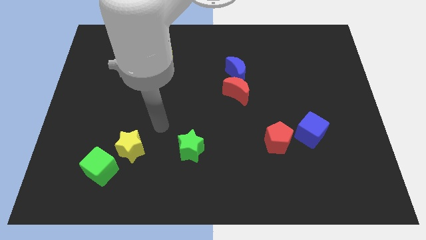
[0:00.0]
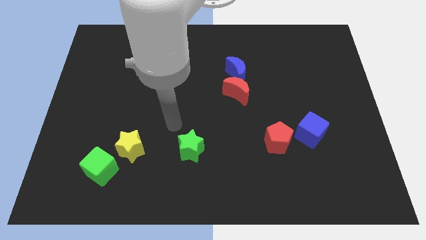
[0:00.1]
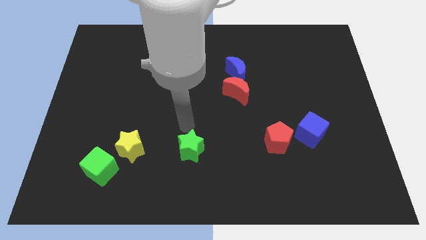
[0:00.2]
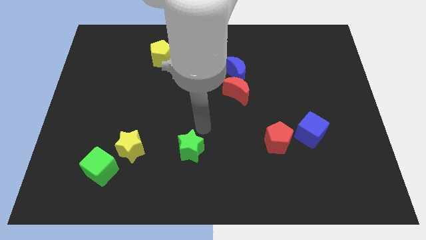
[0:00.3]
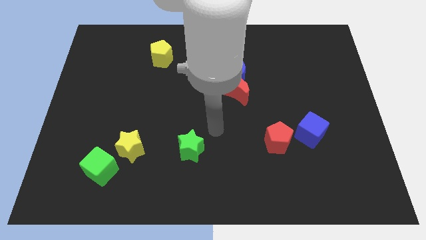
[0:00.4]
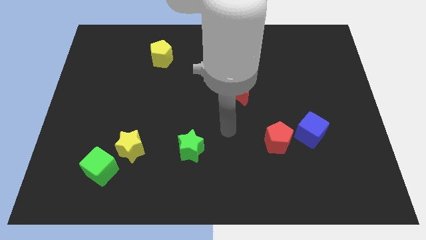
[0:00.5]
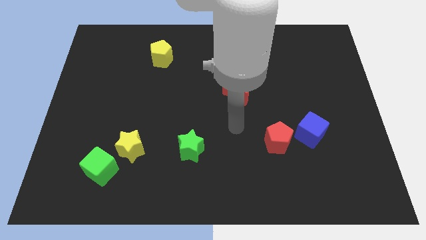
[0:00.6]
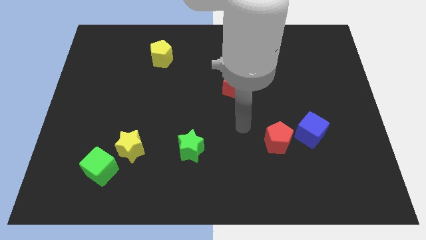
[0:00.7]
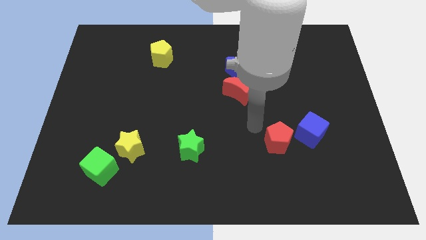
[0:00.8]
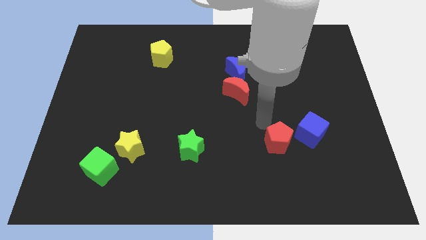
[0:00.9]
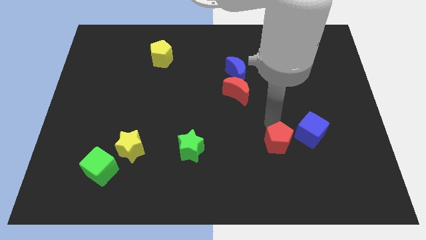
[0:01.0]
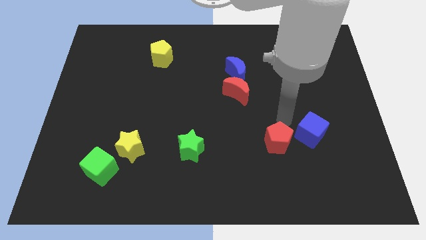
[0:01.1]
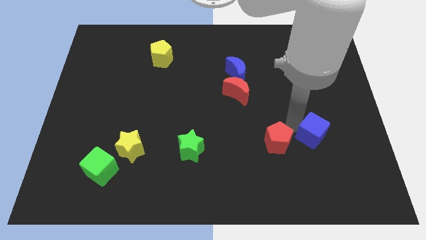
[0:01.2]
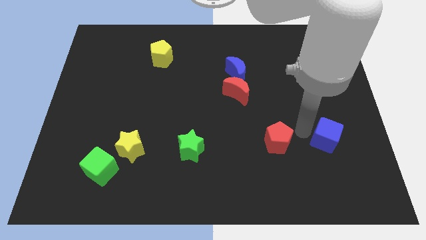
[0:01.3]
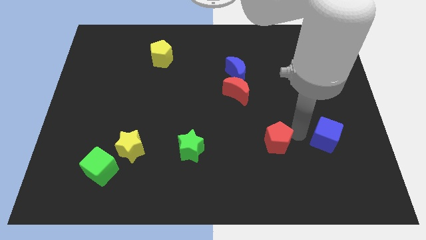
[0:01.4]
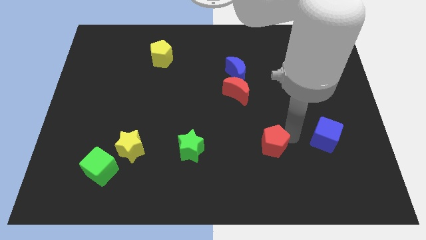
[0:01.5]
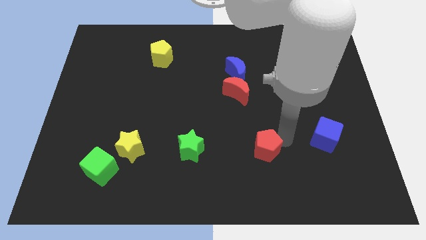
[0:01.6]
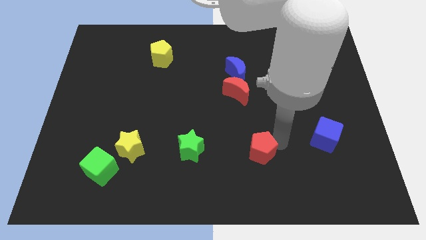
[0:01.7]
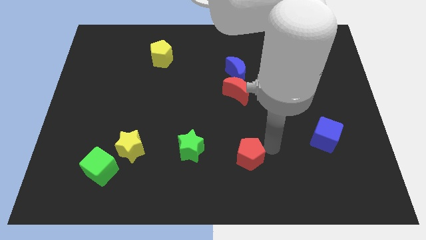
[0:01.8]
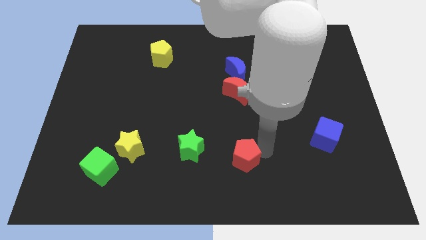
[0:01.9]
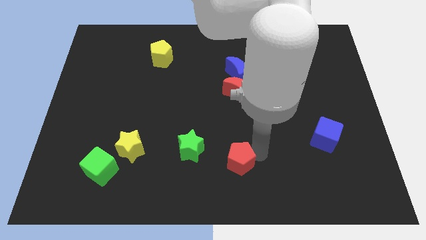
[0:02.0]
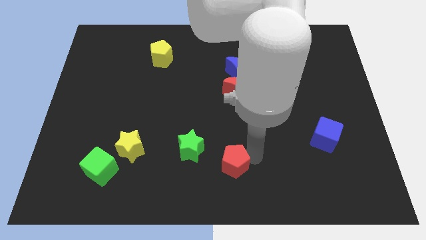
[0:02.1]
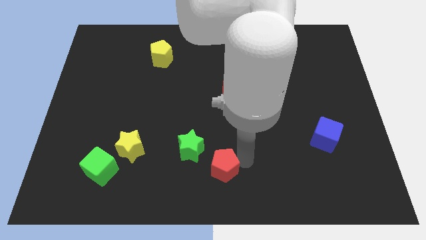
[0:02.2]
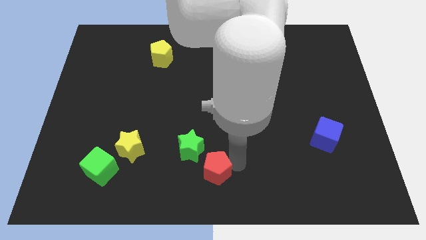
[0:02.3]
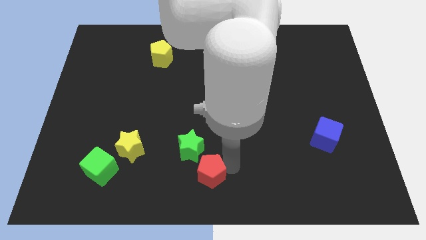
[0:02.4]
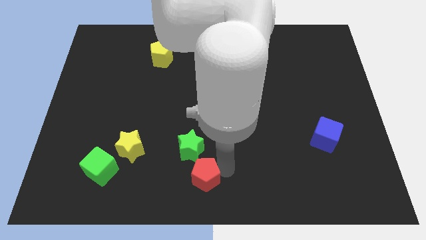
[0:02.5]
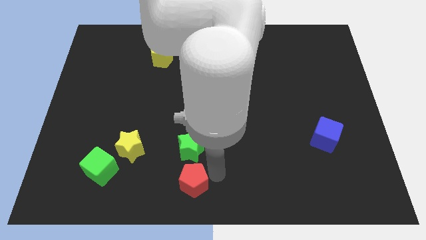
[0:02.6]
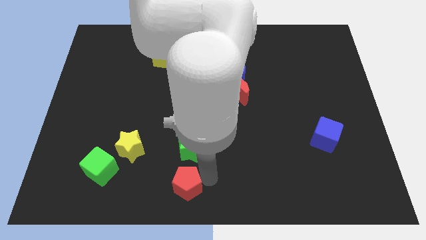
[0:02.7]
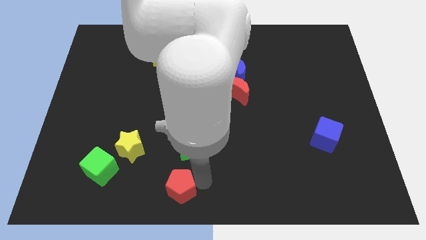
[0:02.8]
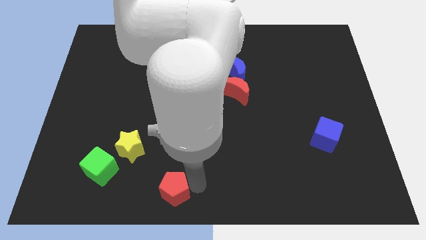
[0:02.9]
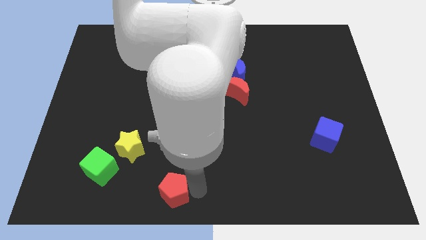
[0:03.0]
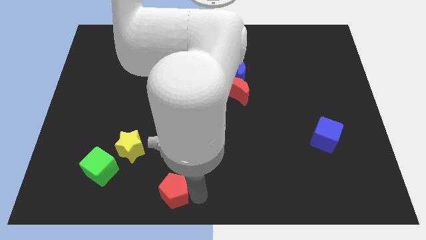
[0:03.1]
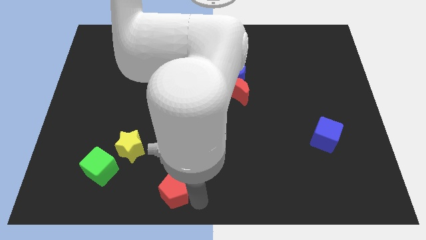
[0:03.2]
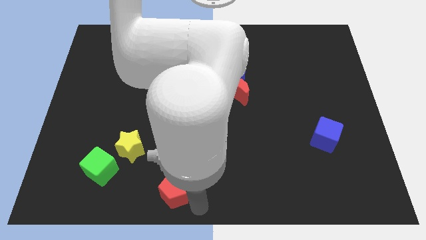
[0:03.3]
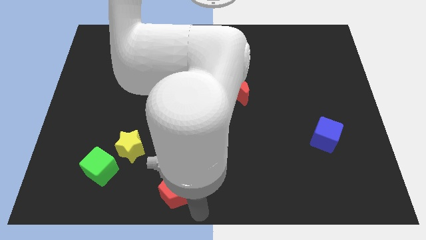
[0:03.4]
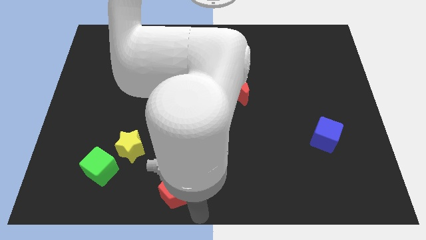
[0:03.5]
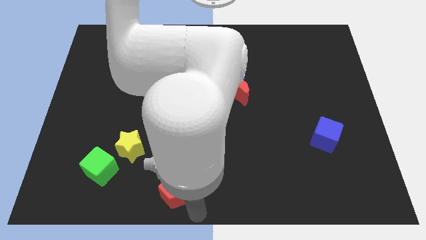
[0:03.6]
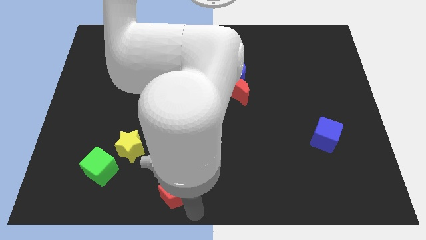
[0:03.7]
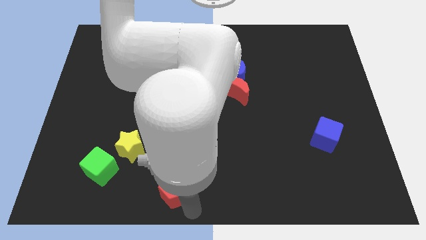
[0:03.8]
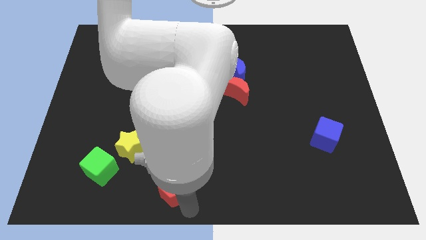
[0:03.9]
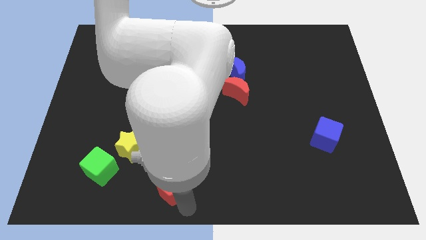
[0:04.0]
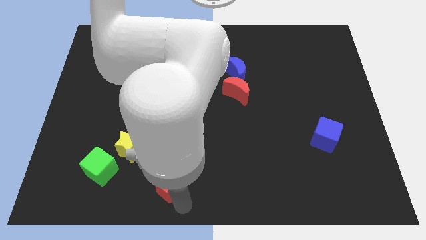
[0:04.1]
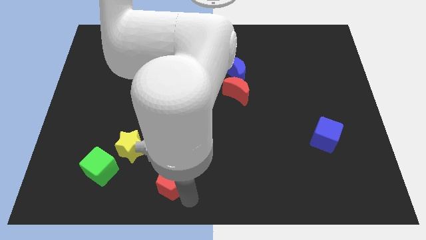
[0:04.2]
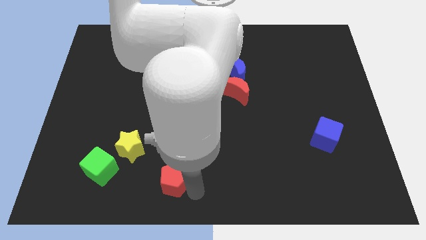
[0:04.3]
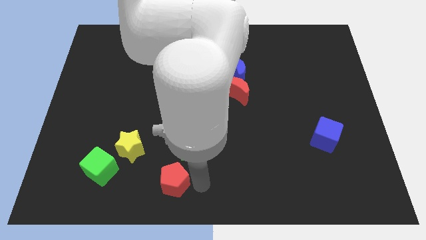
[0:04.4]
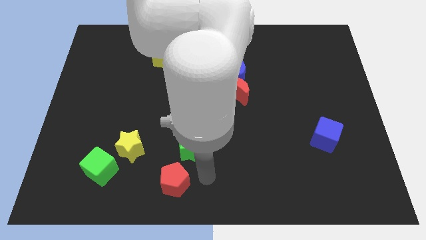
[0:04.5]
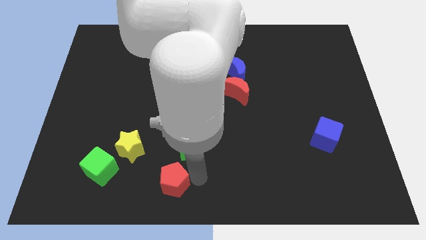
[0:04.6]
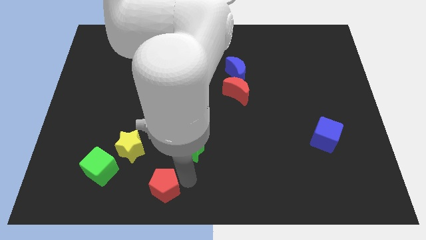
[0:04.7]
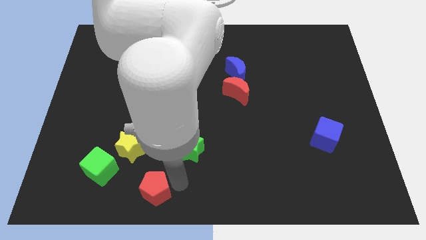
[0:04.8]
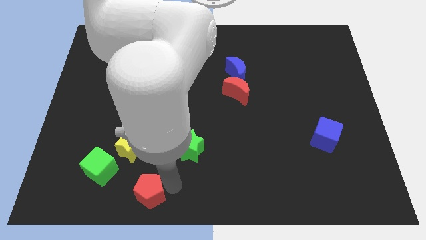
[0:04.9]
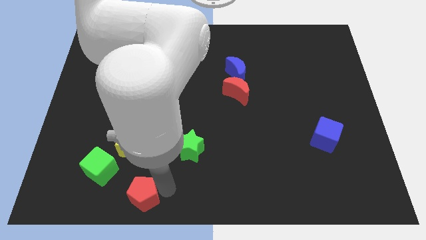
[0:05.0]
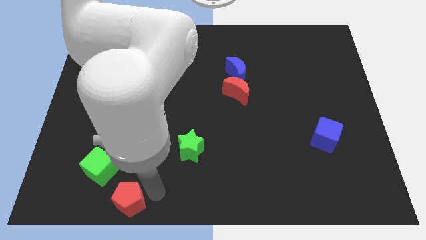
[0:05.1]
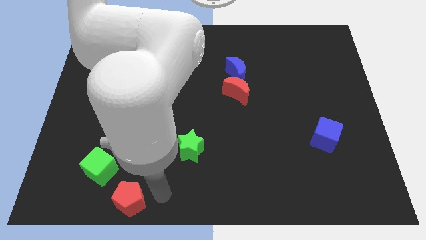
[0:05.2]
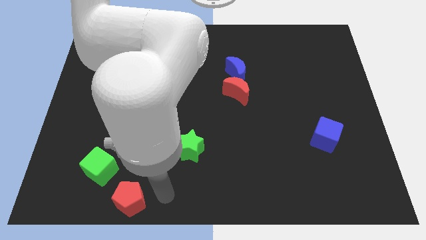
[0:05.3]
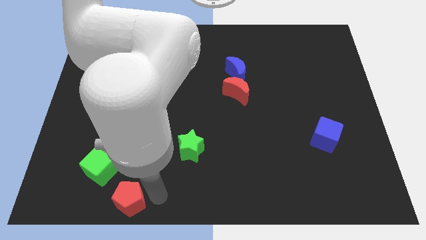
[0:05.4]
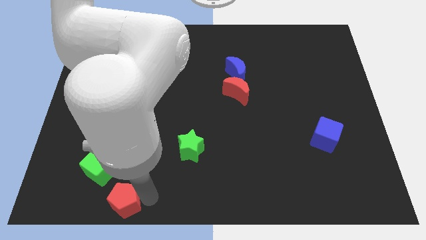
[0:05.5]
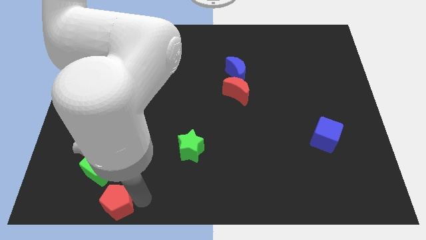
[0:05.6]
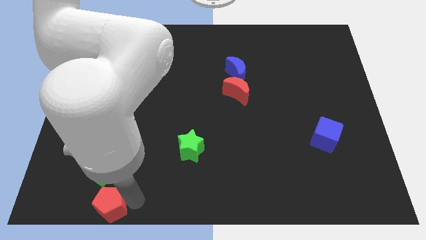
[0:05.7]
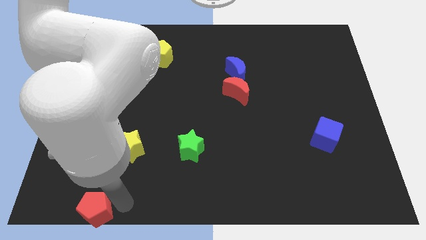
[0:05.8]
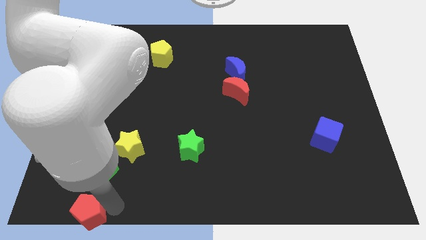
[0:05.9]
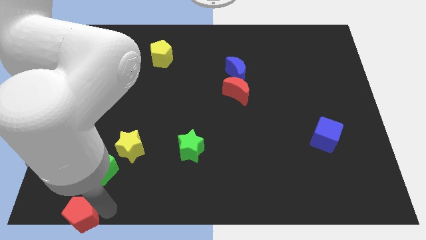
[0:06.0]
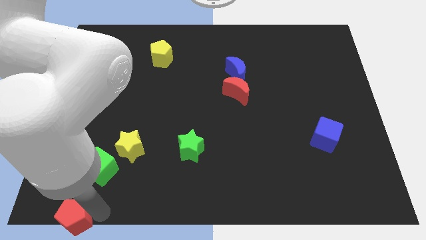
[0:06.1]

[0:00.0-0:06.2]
slide the red pentagon to the bottom left corner

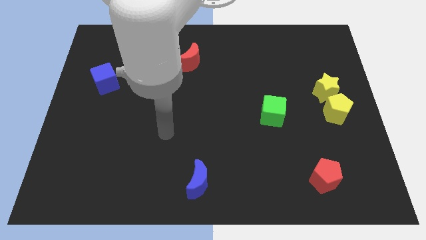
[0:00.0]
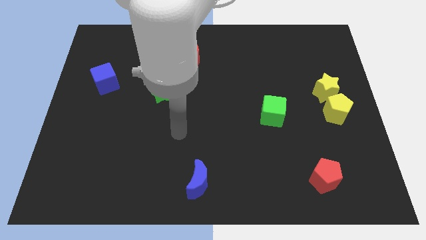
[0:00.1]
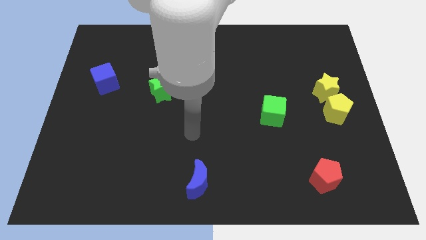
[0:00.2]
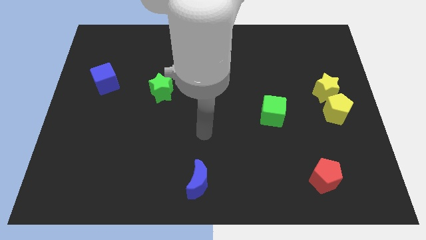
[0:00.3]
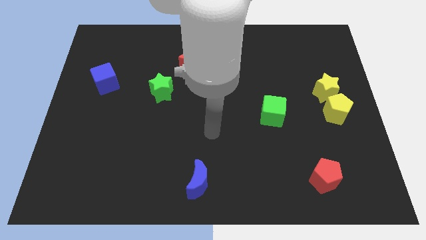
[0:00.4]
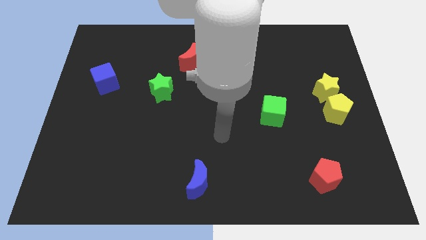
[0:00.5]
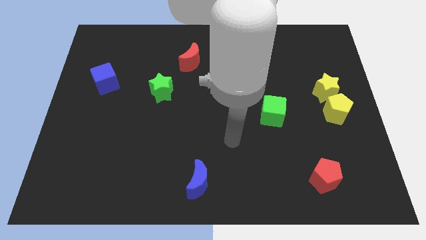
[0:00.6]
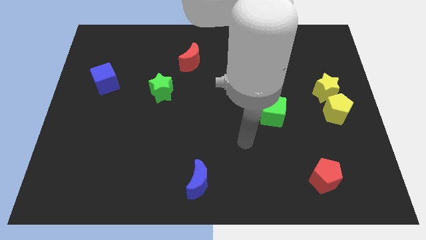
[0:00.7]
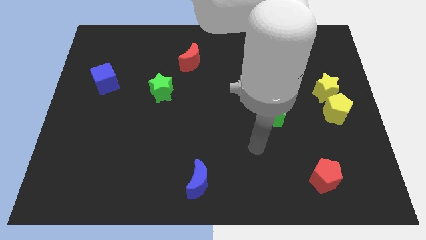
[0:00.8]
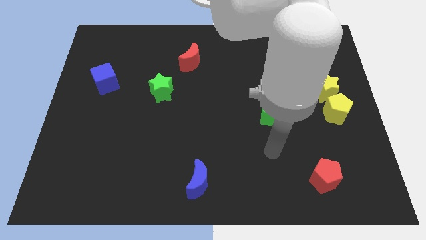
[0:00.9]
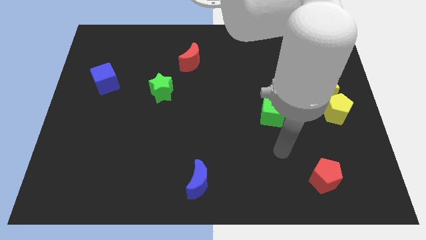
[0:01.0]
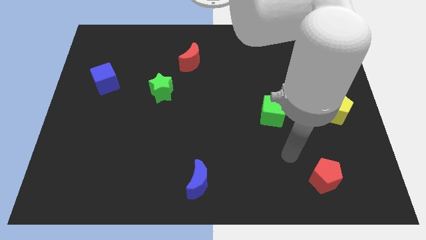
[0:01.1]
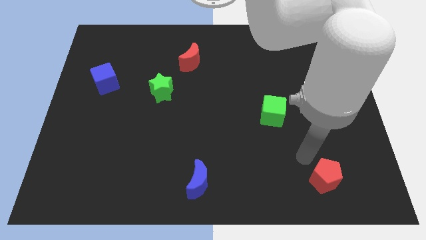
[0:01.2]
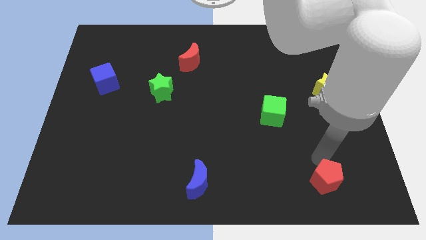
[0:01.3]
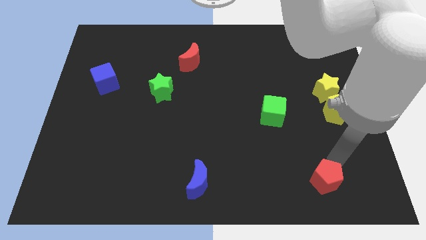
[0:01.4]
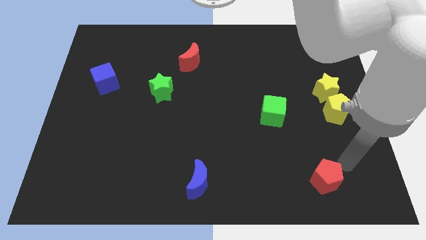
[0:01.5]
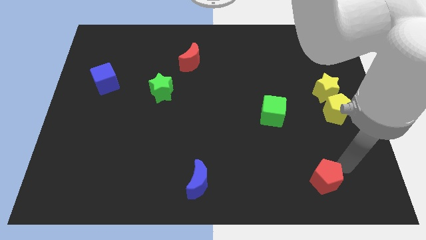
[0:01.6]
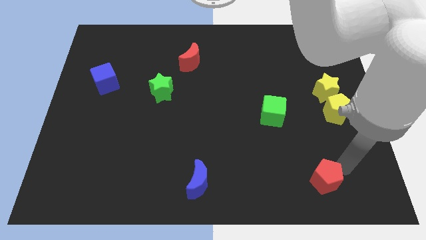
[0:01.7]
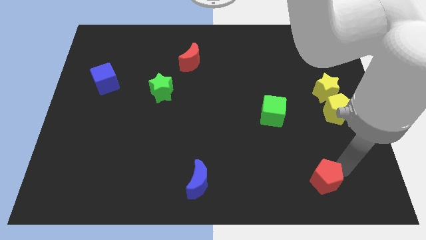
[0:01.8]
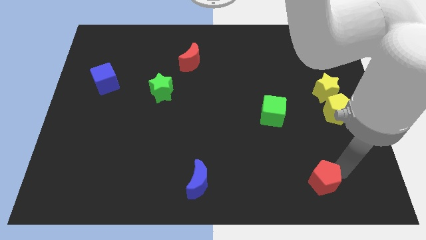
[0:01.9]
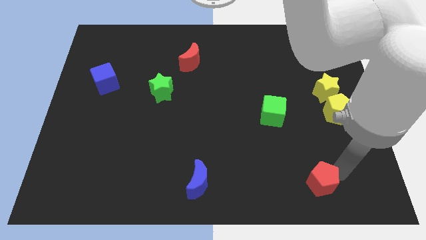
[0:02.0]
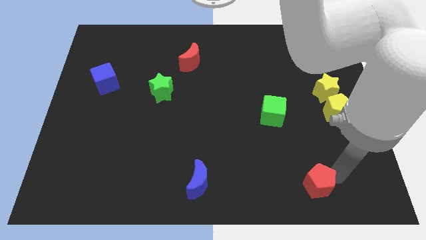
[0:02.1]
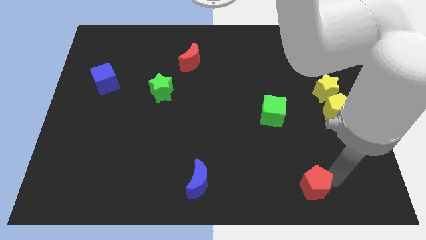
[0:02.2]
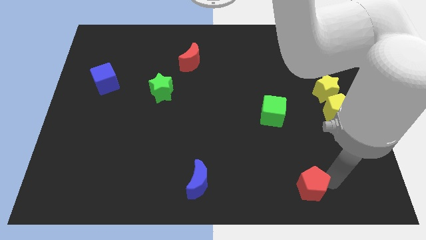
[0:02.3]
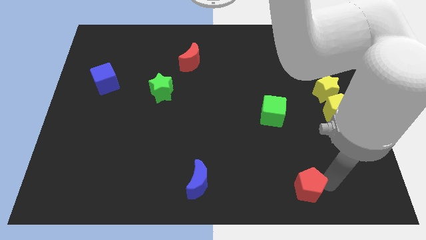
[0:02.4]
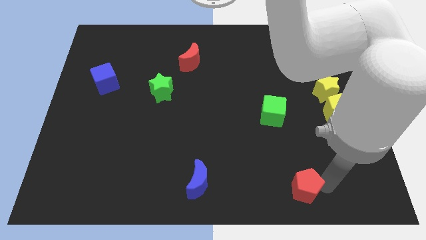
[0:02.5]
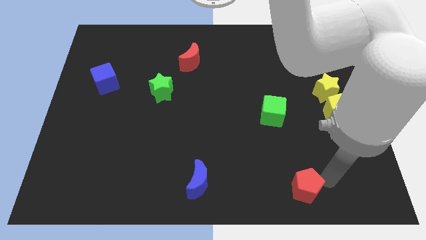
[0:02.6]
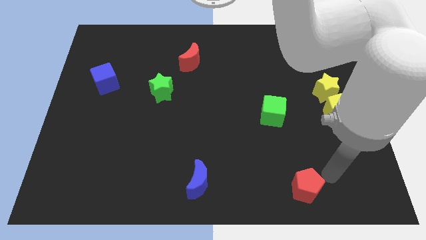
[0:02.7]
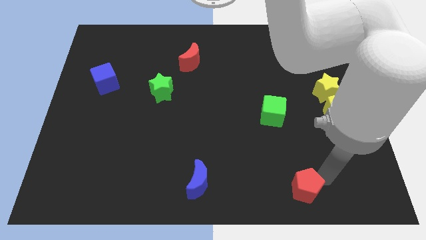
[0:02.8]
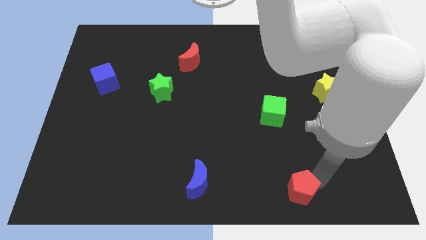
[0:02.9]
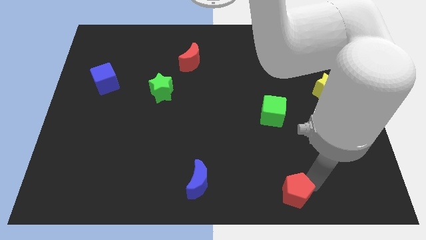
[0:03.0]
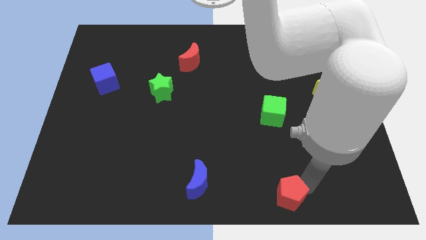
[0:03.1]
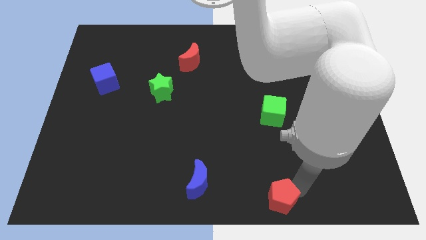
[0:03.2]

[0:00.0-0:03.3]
push the red pentagon to the bottom
